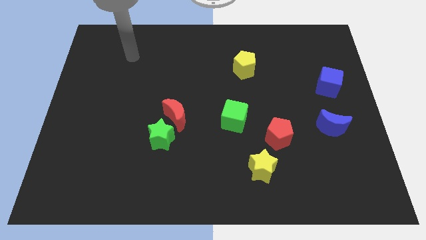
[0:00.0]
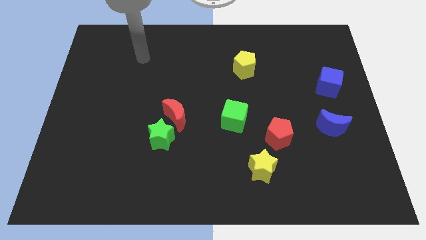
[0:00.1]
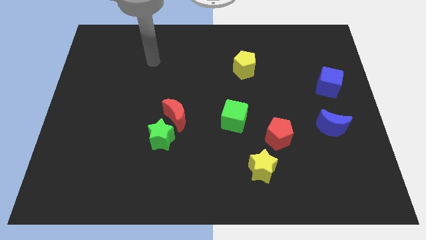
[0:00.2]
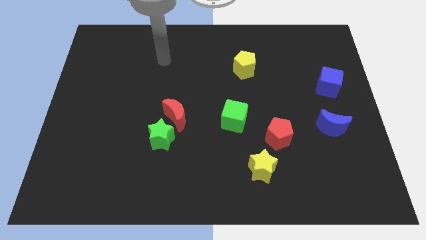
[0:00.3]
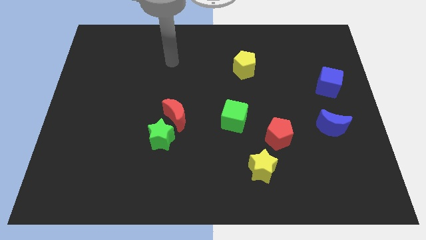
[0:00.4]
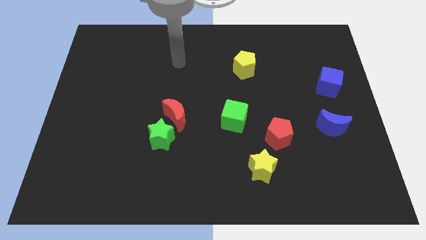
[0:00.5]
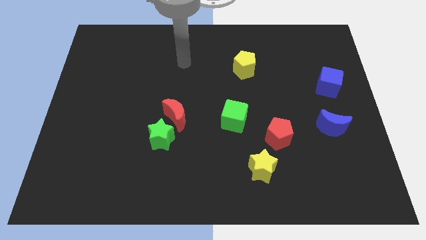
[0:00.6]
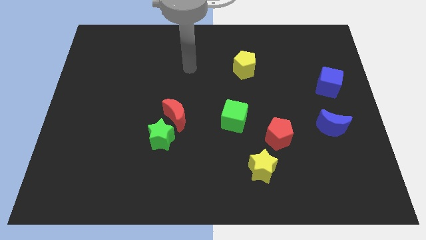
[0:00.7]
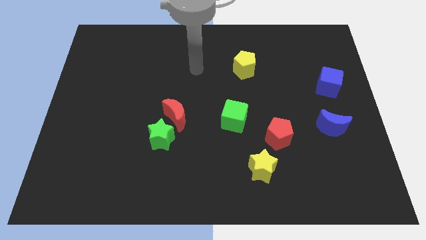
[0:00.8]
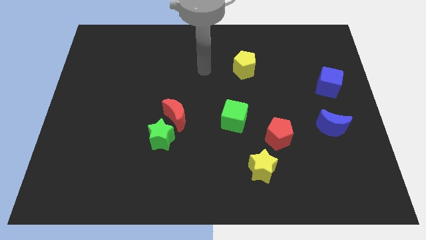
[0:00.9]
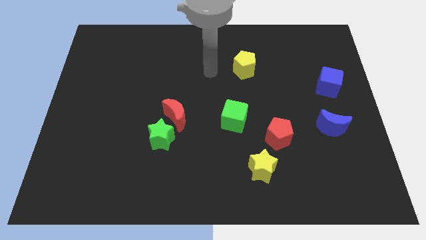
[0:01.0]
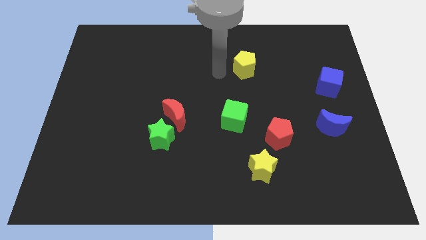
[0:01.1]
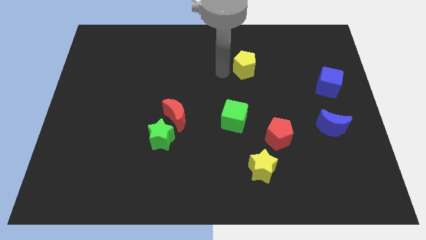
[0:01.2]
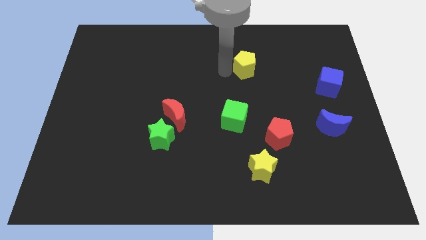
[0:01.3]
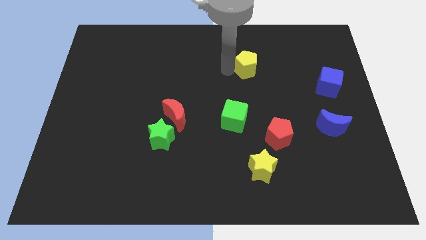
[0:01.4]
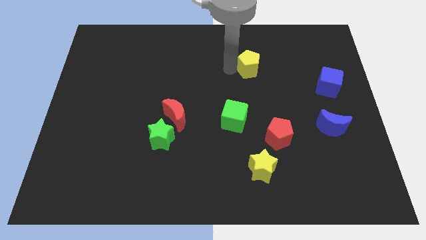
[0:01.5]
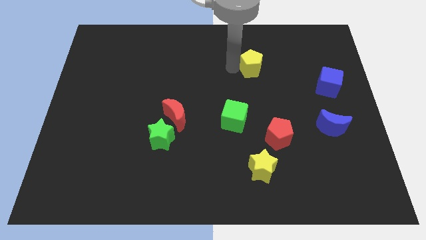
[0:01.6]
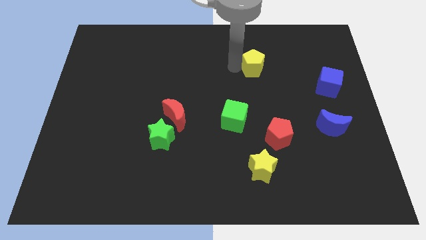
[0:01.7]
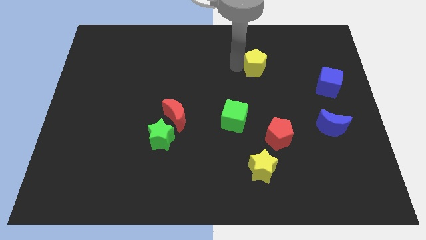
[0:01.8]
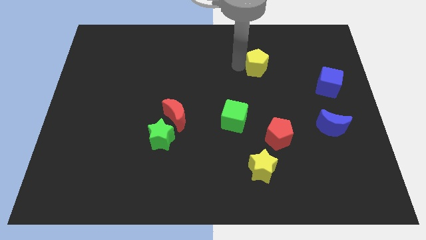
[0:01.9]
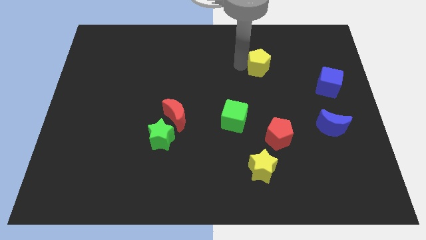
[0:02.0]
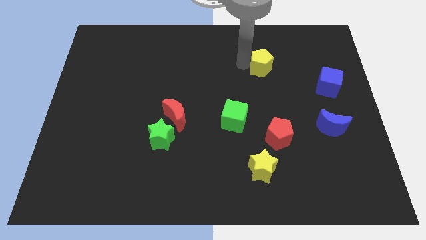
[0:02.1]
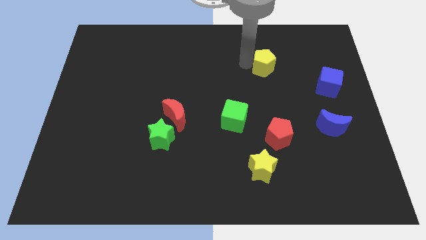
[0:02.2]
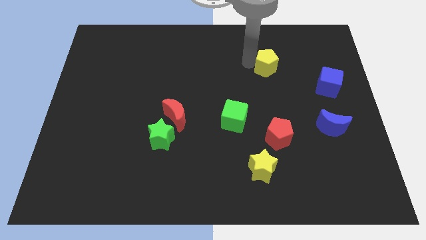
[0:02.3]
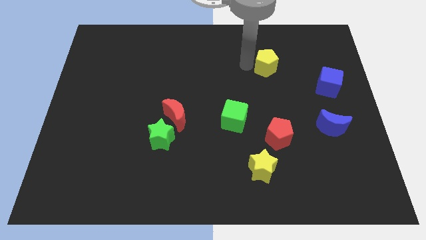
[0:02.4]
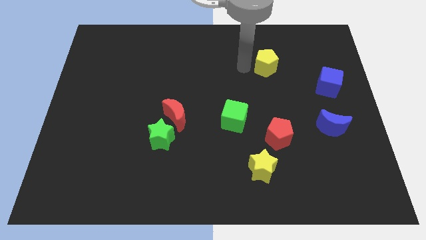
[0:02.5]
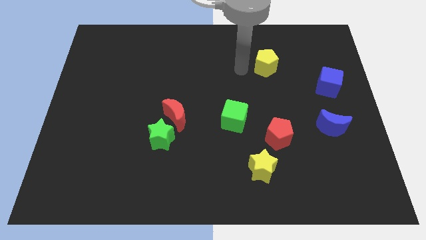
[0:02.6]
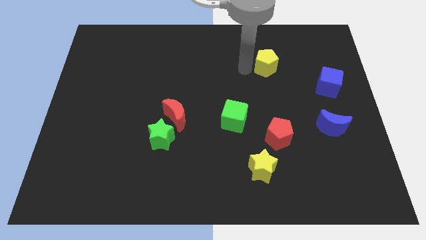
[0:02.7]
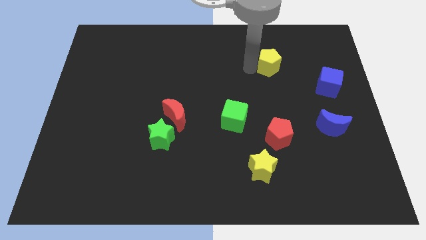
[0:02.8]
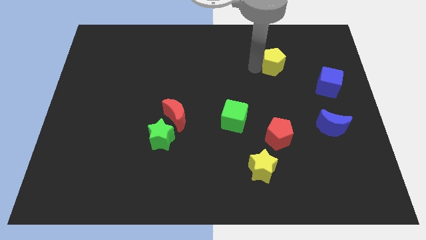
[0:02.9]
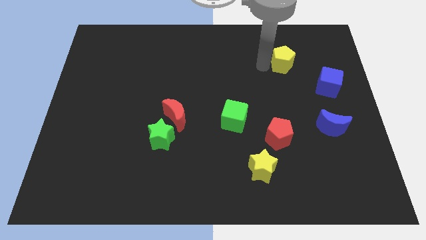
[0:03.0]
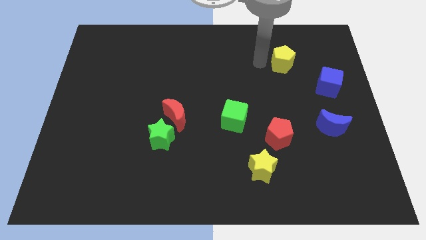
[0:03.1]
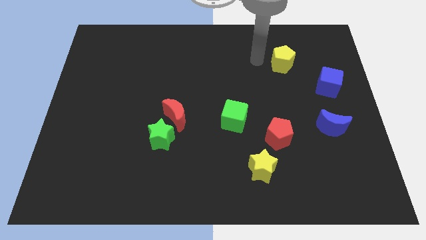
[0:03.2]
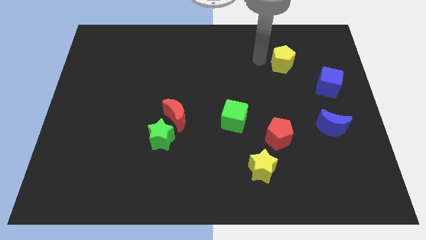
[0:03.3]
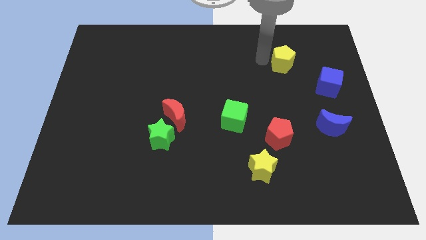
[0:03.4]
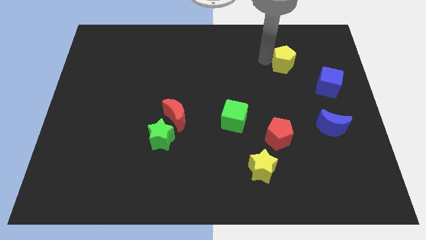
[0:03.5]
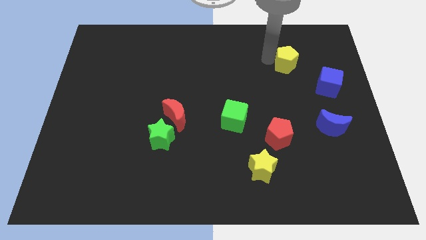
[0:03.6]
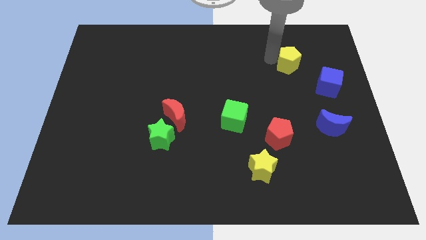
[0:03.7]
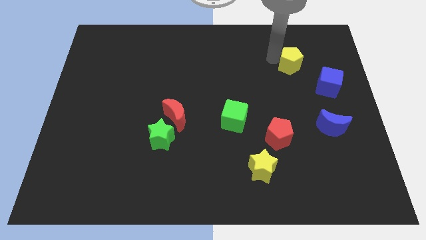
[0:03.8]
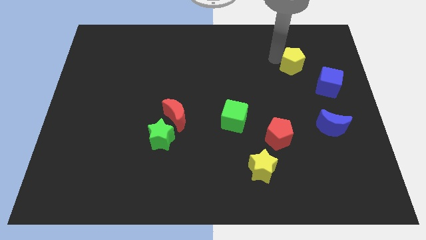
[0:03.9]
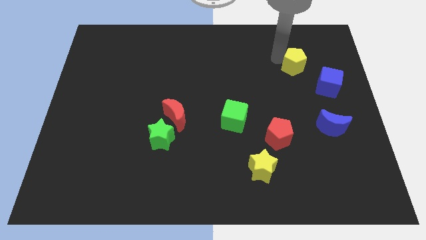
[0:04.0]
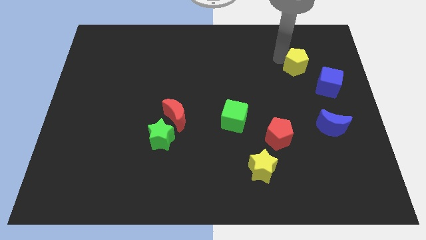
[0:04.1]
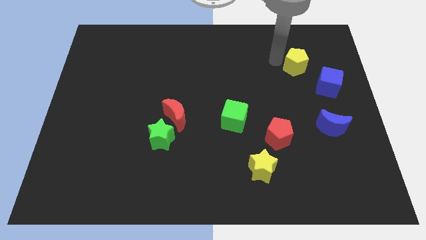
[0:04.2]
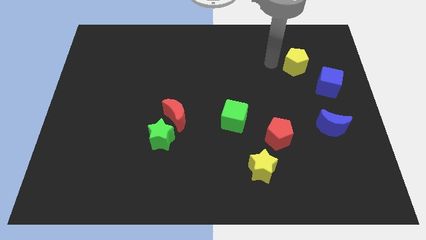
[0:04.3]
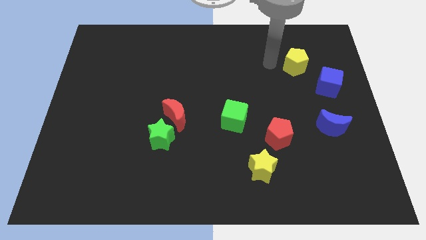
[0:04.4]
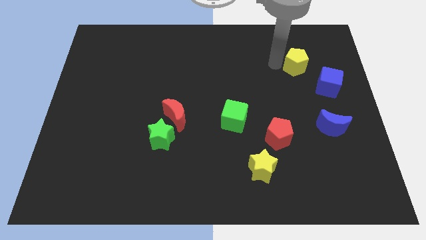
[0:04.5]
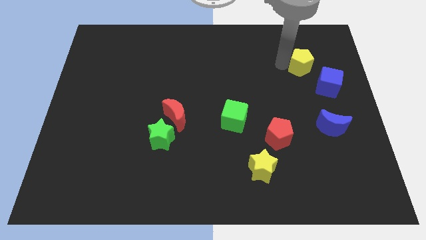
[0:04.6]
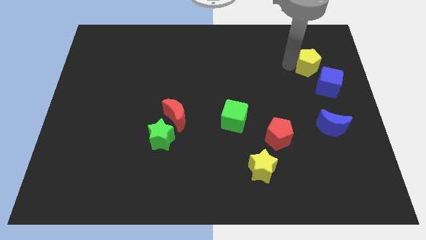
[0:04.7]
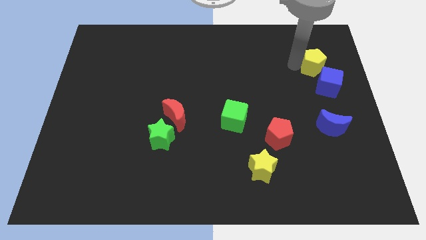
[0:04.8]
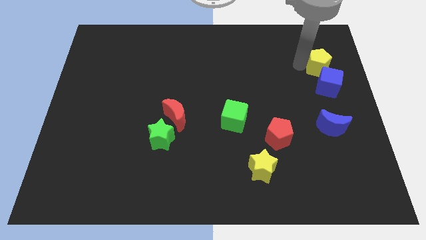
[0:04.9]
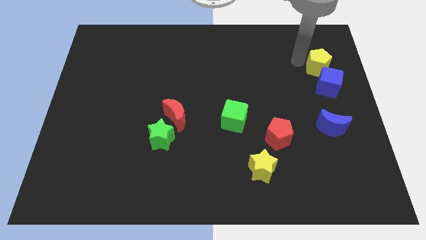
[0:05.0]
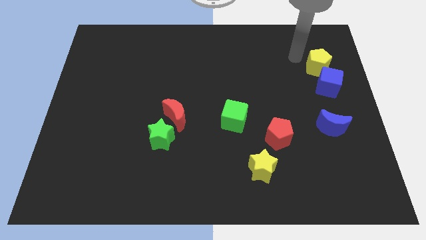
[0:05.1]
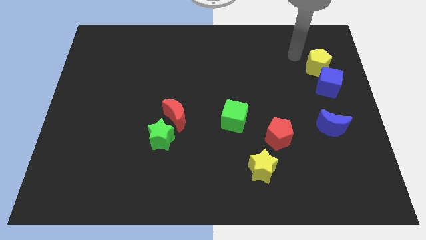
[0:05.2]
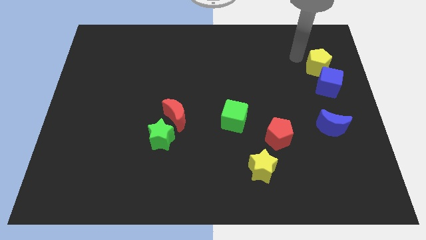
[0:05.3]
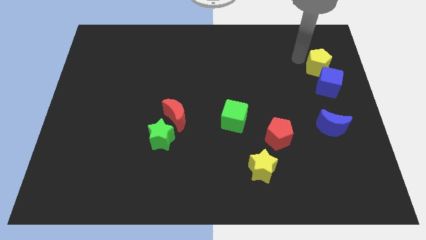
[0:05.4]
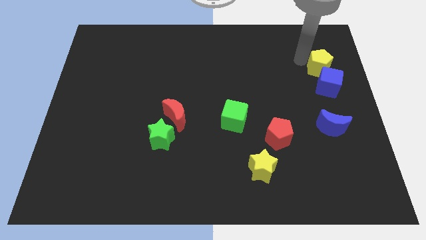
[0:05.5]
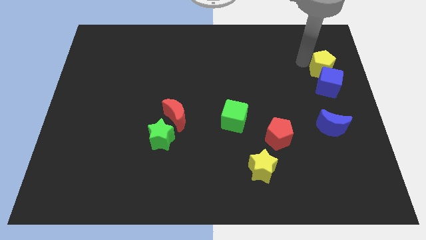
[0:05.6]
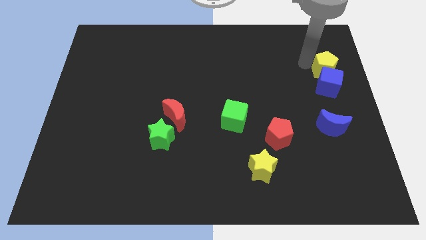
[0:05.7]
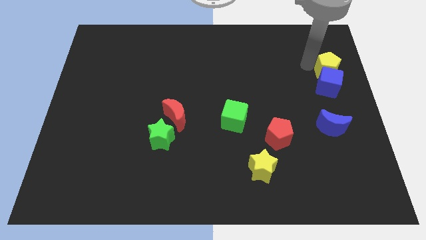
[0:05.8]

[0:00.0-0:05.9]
slide the yellow pentagon to the right side
